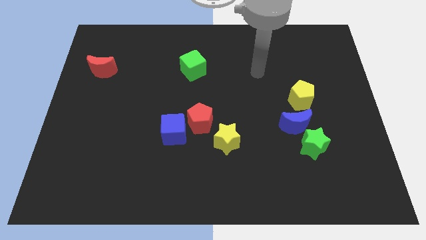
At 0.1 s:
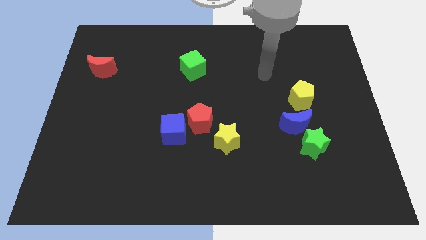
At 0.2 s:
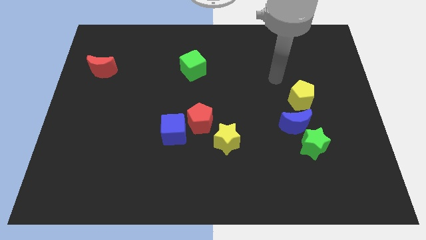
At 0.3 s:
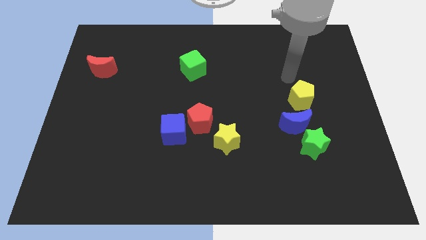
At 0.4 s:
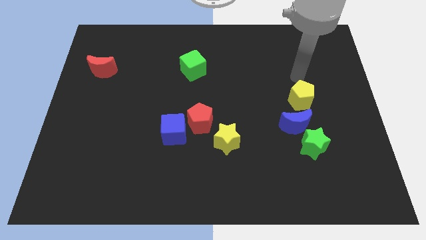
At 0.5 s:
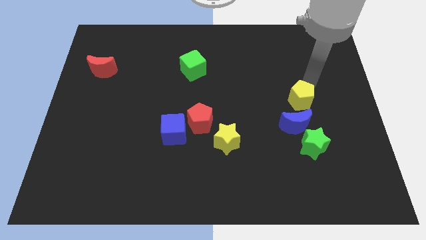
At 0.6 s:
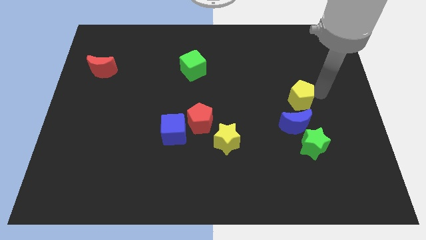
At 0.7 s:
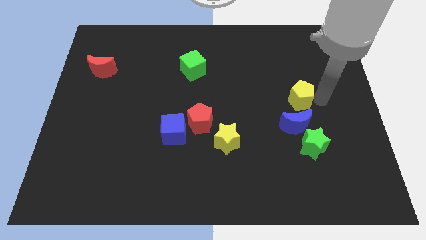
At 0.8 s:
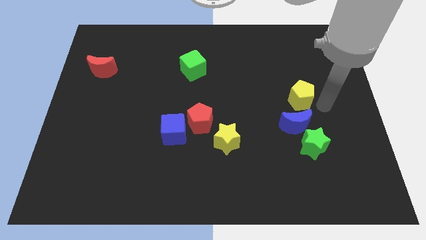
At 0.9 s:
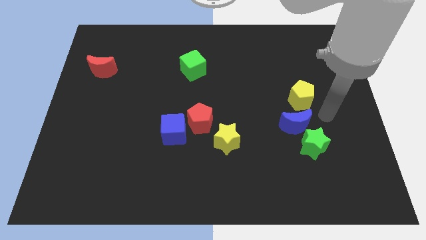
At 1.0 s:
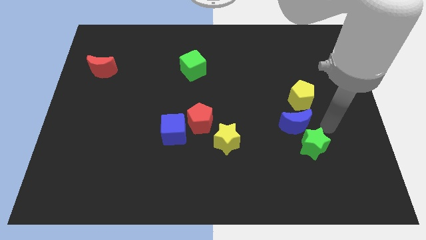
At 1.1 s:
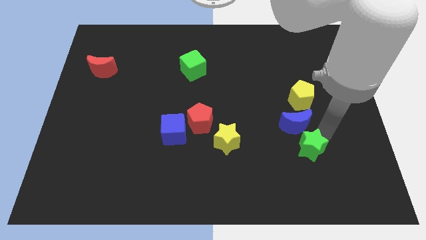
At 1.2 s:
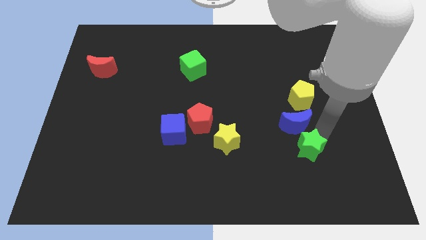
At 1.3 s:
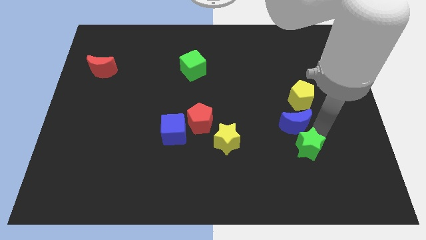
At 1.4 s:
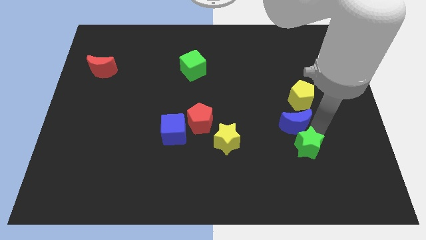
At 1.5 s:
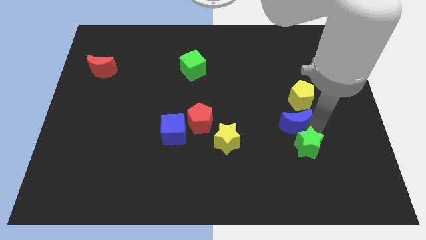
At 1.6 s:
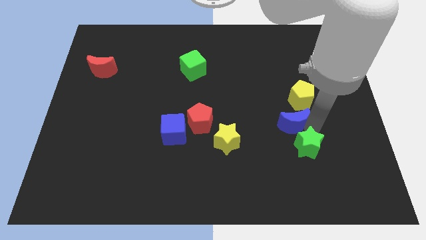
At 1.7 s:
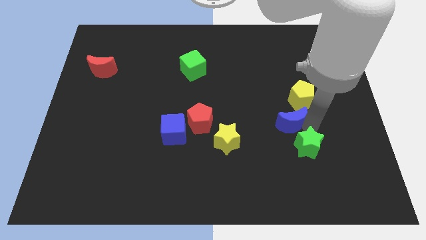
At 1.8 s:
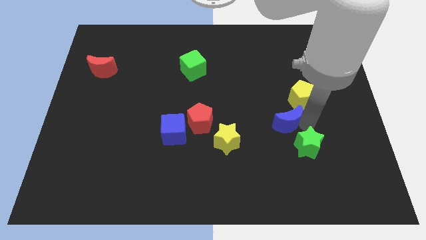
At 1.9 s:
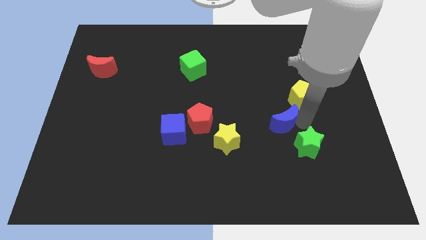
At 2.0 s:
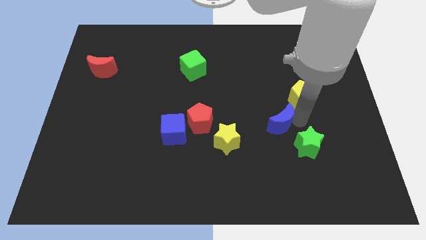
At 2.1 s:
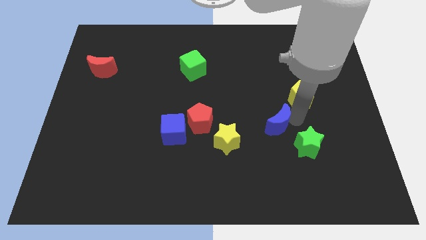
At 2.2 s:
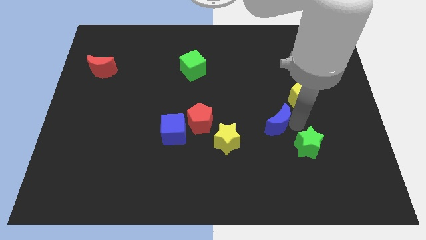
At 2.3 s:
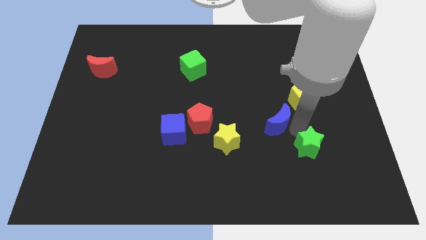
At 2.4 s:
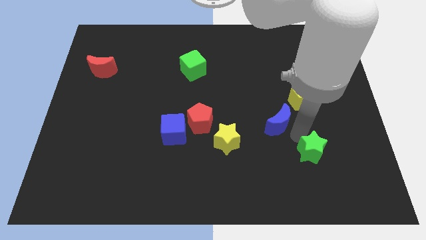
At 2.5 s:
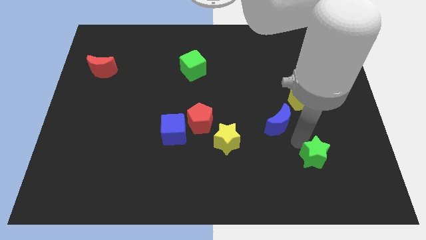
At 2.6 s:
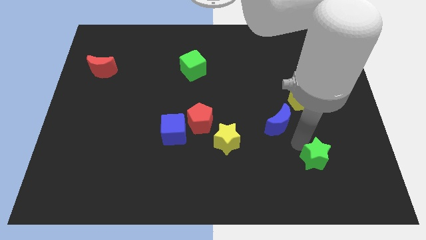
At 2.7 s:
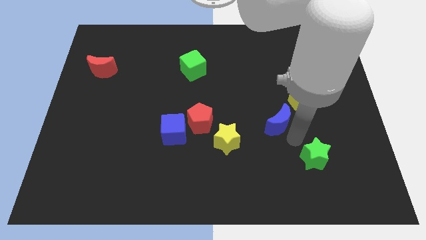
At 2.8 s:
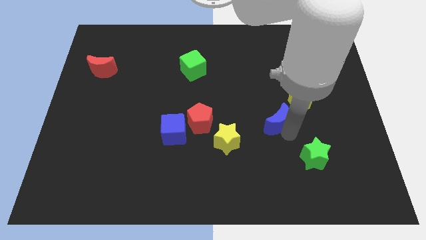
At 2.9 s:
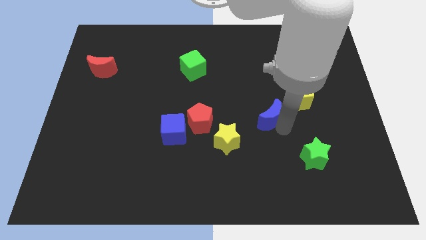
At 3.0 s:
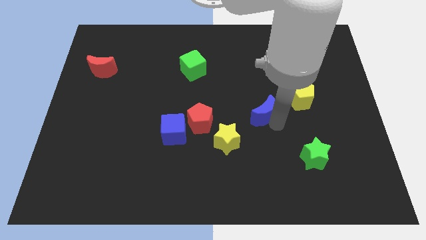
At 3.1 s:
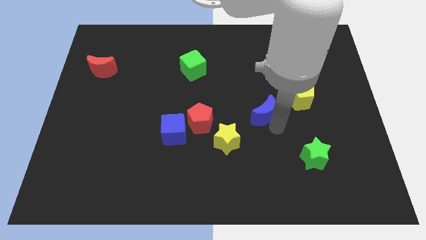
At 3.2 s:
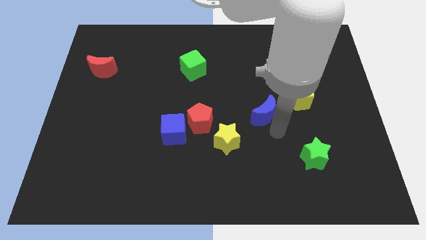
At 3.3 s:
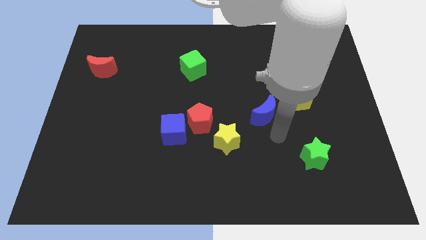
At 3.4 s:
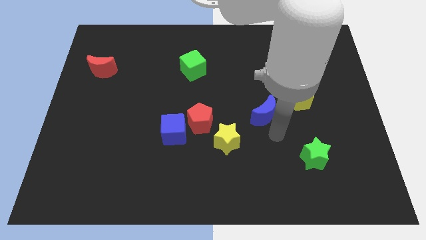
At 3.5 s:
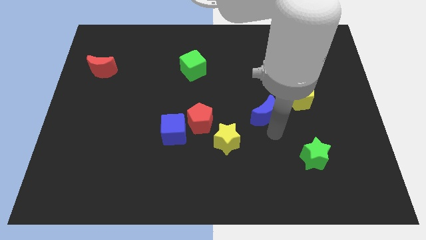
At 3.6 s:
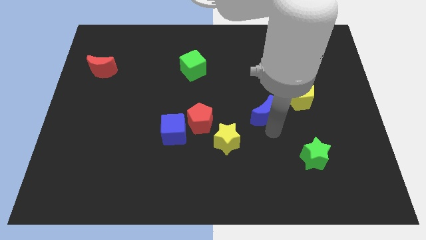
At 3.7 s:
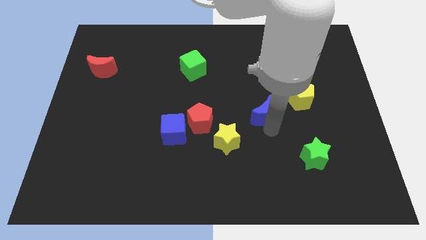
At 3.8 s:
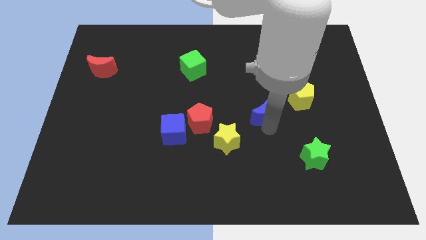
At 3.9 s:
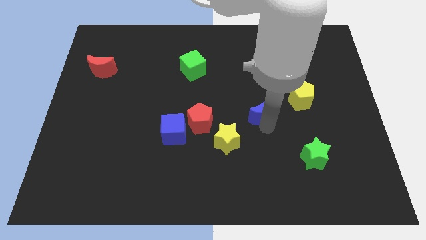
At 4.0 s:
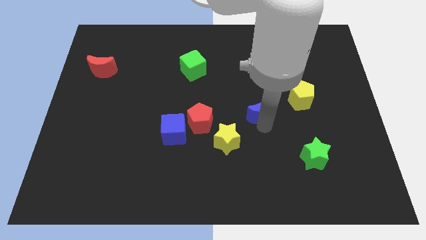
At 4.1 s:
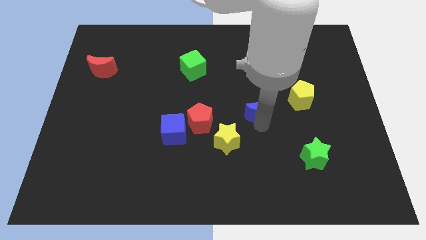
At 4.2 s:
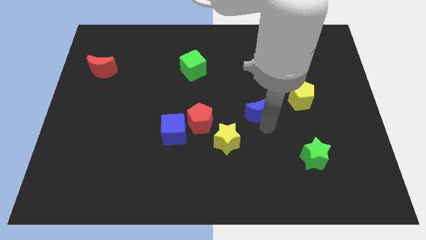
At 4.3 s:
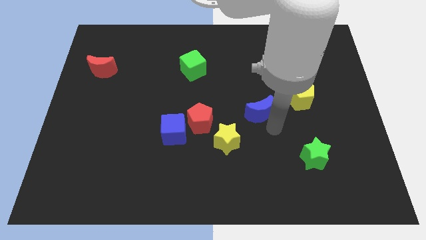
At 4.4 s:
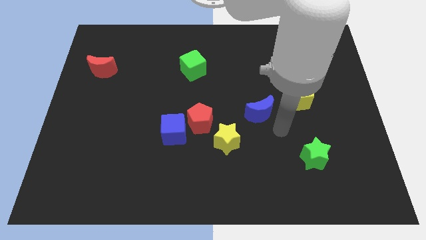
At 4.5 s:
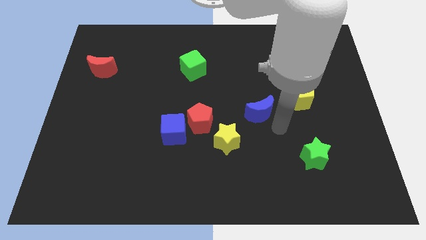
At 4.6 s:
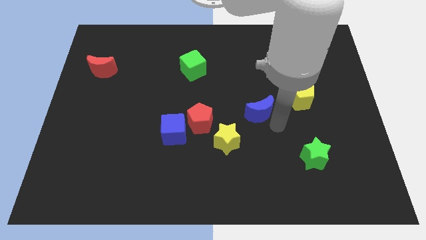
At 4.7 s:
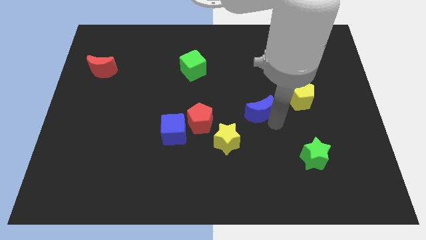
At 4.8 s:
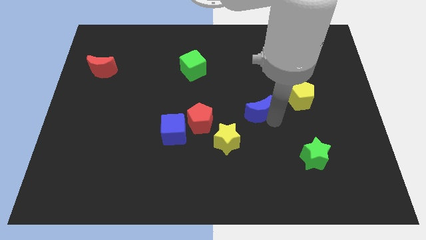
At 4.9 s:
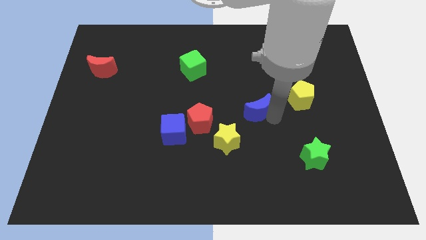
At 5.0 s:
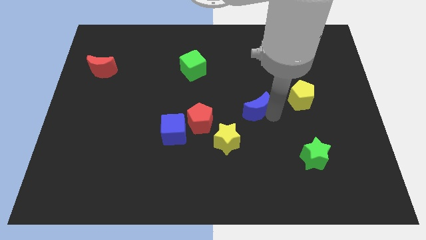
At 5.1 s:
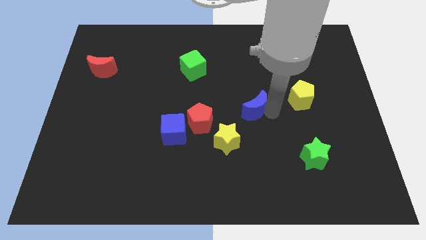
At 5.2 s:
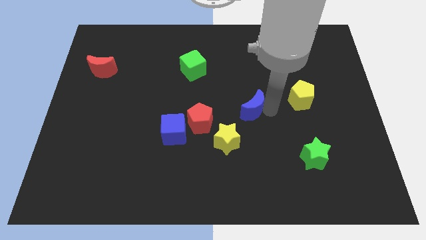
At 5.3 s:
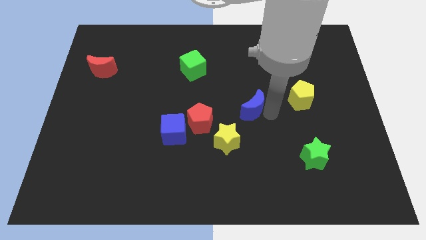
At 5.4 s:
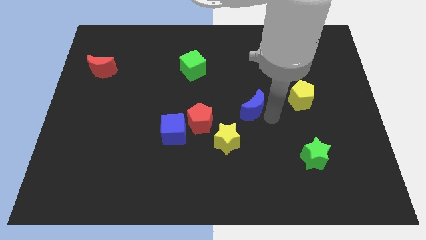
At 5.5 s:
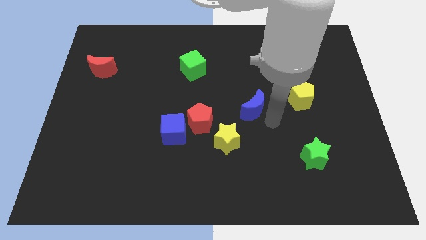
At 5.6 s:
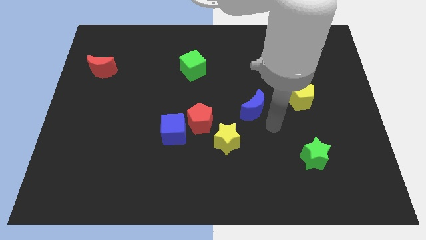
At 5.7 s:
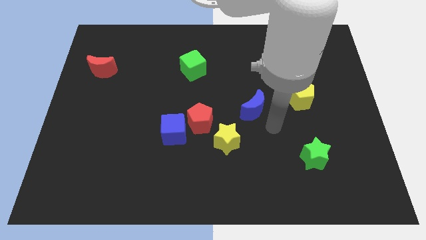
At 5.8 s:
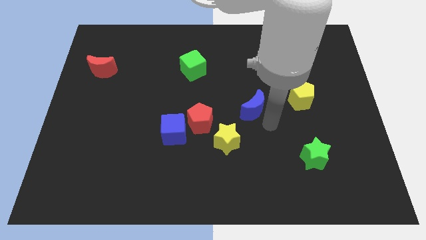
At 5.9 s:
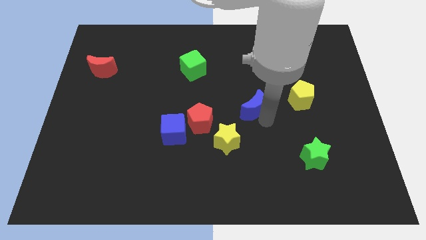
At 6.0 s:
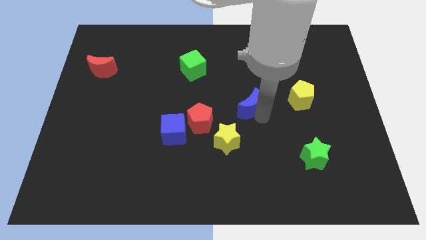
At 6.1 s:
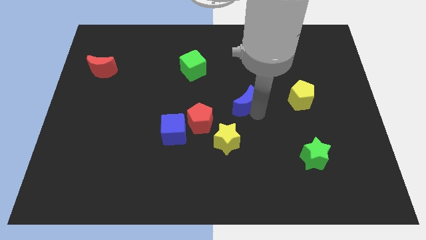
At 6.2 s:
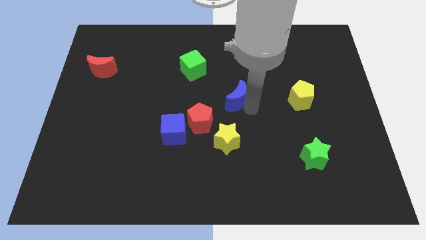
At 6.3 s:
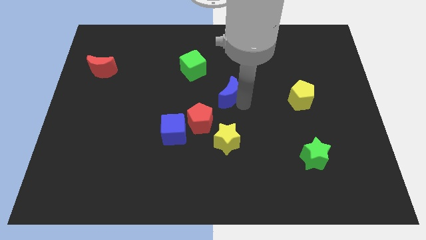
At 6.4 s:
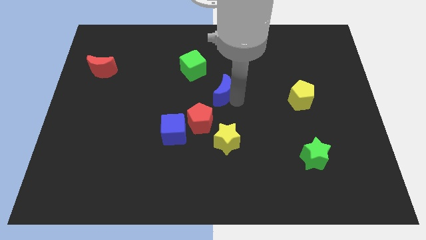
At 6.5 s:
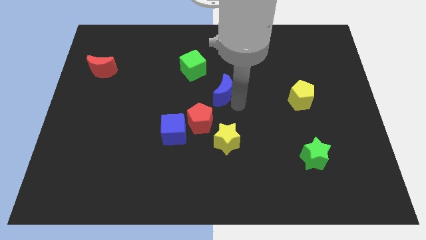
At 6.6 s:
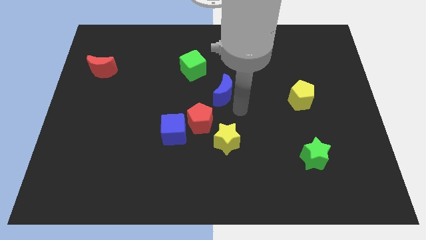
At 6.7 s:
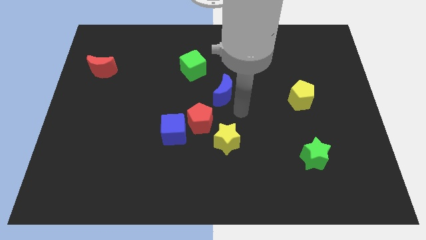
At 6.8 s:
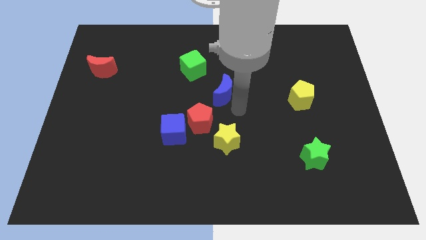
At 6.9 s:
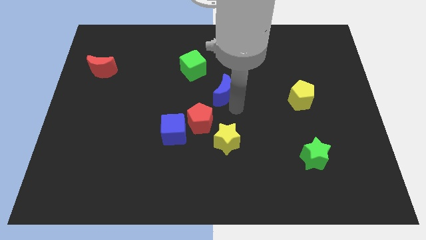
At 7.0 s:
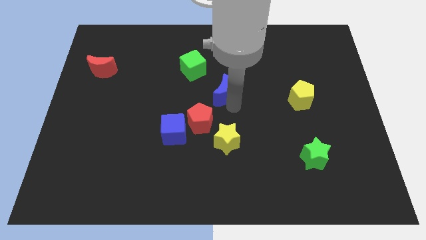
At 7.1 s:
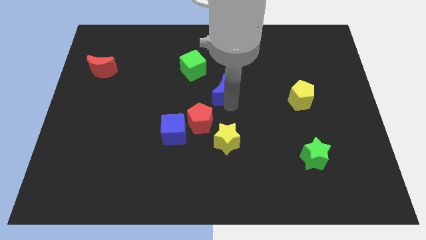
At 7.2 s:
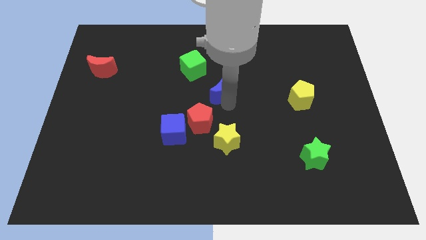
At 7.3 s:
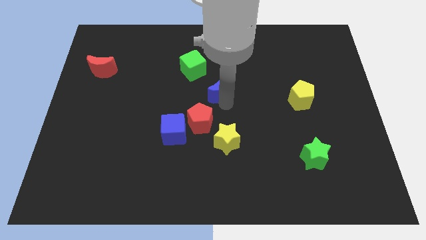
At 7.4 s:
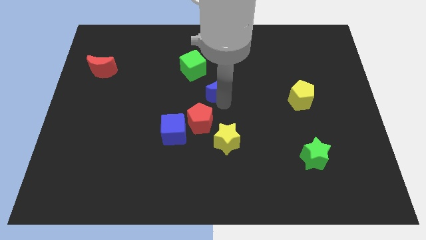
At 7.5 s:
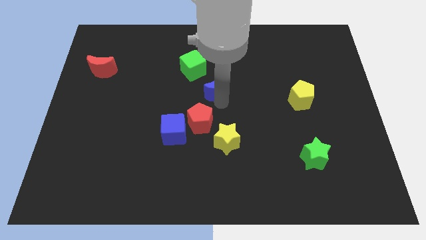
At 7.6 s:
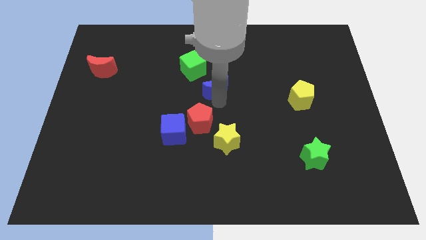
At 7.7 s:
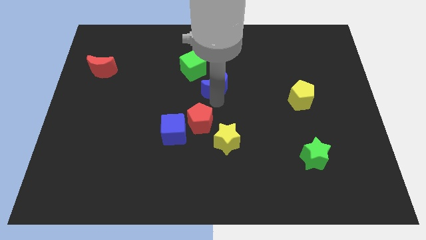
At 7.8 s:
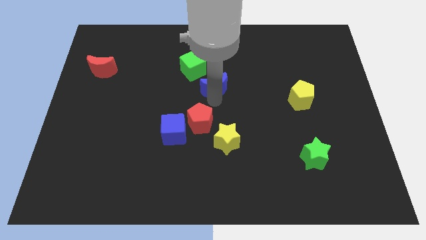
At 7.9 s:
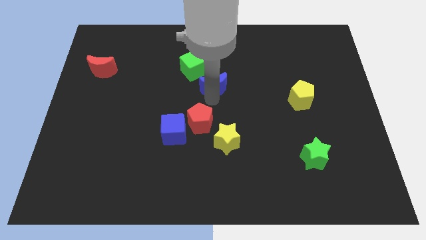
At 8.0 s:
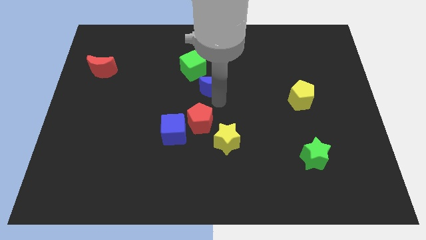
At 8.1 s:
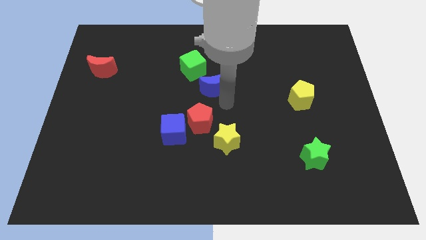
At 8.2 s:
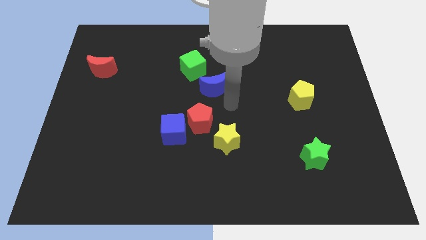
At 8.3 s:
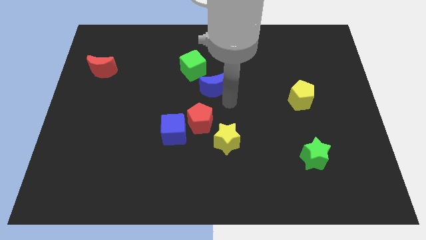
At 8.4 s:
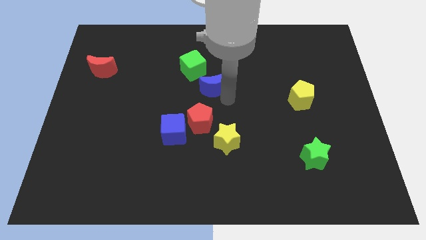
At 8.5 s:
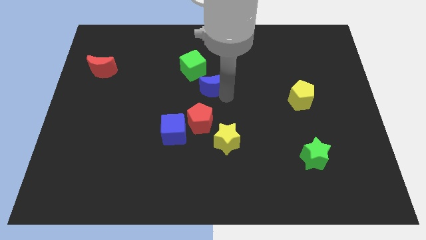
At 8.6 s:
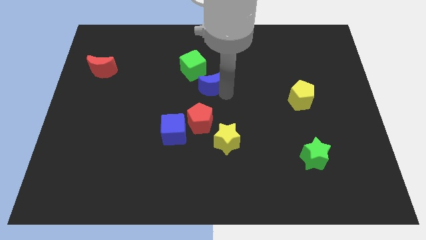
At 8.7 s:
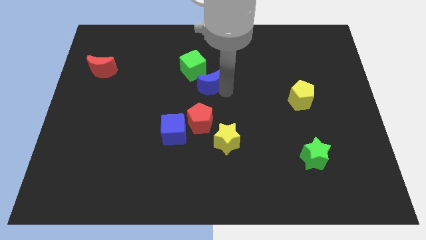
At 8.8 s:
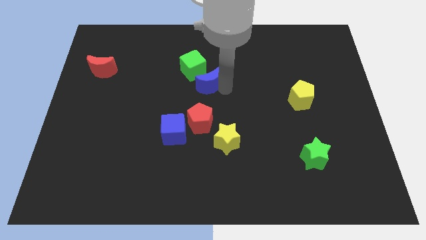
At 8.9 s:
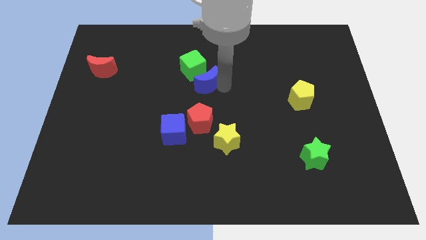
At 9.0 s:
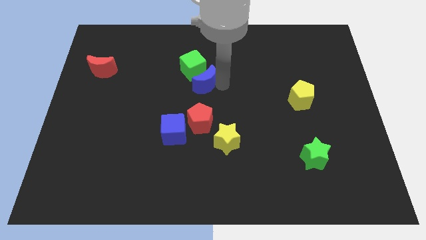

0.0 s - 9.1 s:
put the blue moon next to the green cube
